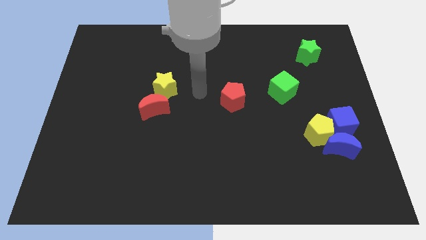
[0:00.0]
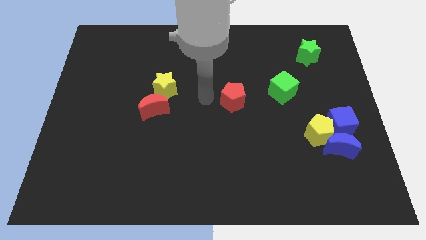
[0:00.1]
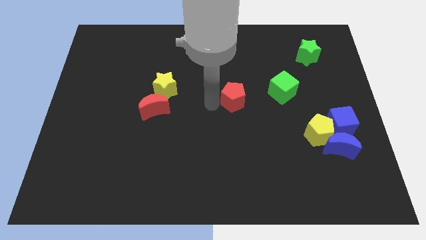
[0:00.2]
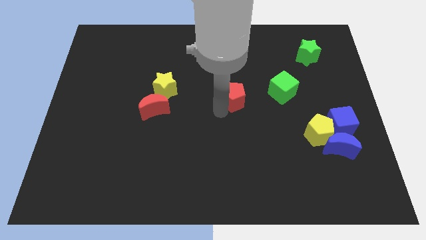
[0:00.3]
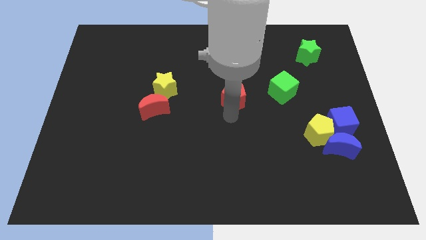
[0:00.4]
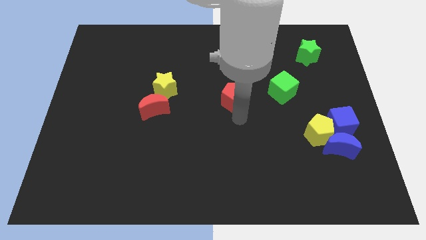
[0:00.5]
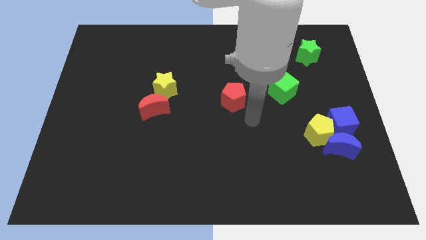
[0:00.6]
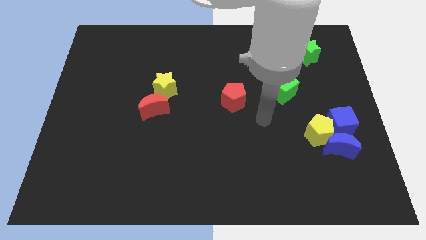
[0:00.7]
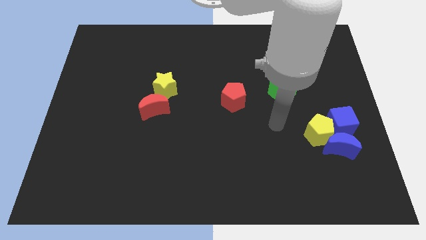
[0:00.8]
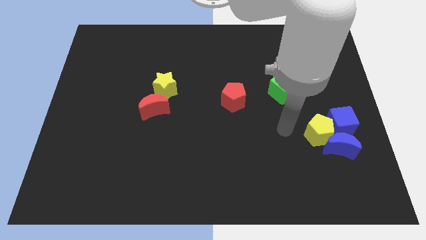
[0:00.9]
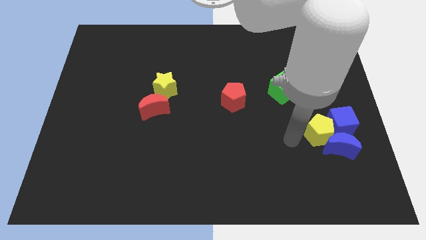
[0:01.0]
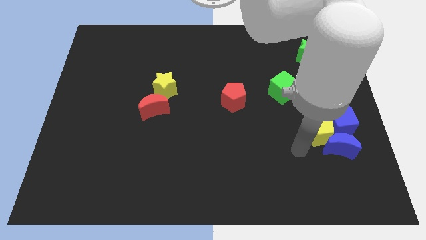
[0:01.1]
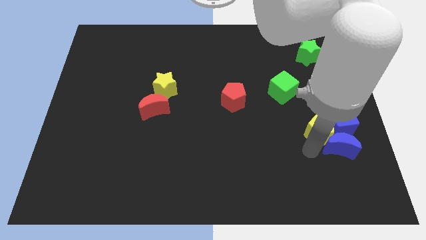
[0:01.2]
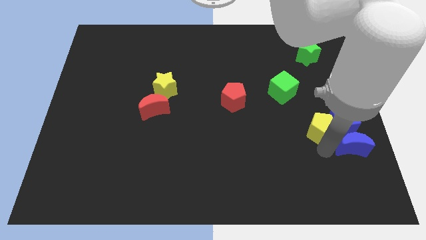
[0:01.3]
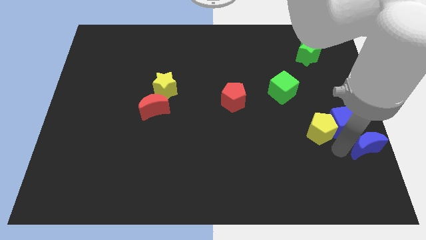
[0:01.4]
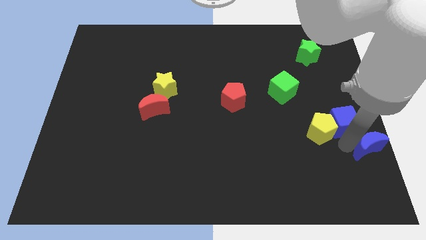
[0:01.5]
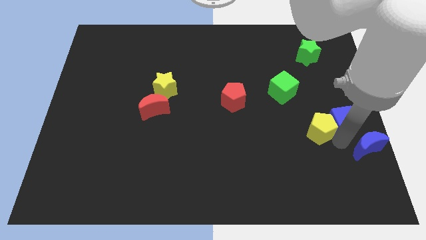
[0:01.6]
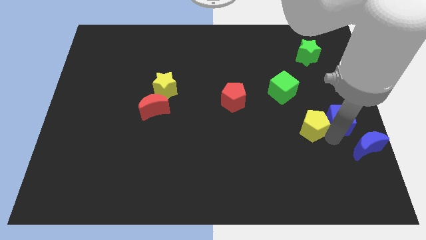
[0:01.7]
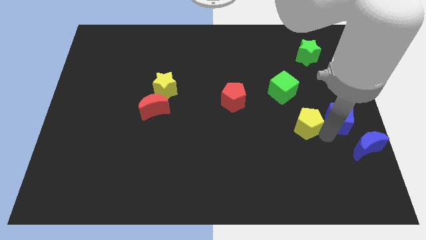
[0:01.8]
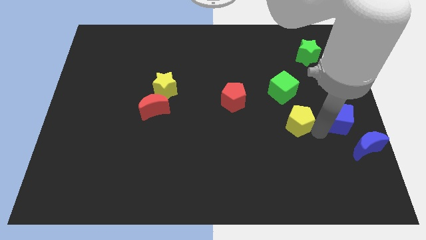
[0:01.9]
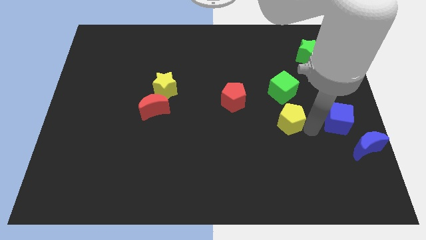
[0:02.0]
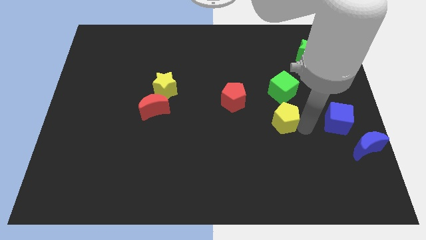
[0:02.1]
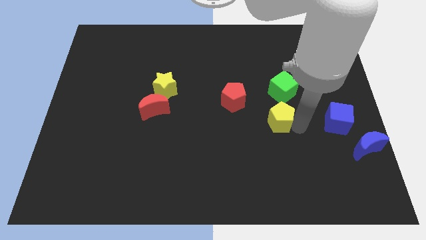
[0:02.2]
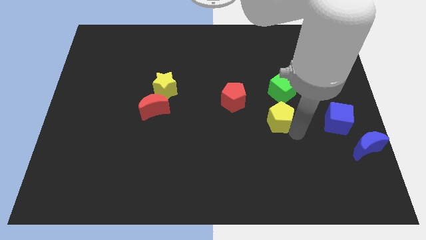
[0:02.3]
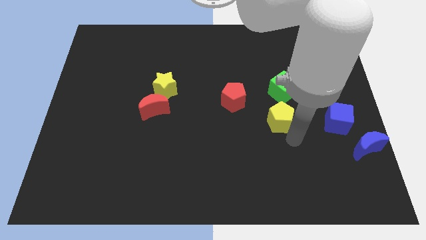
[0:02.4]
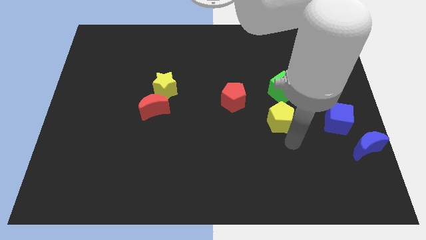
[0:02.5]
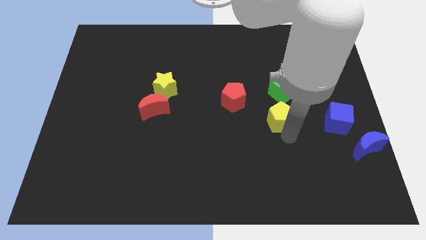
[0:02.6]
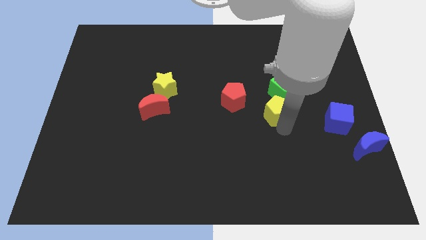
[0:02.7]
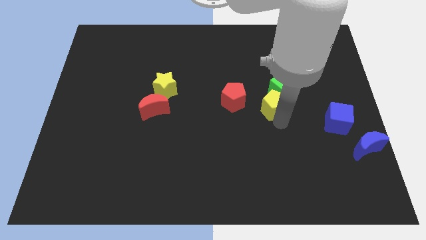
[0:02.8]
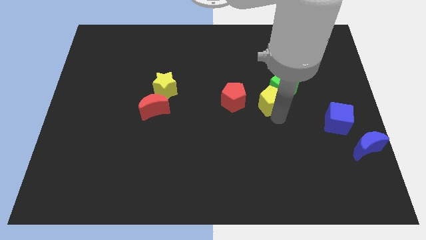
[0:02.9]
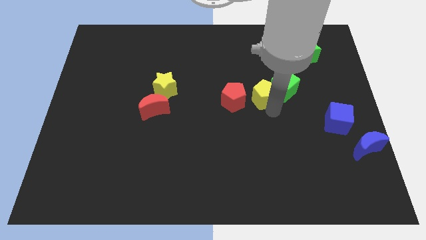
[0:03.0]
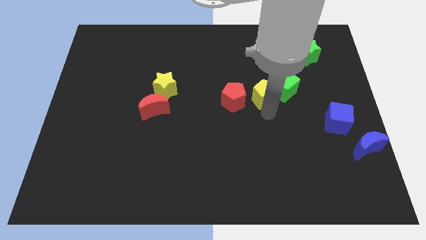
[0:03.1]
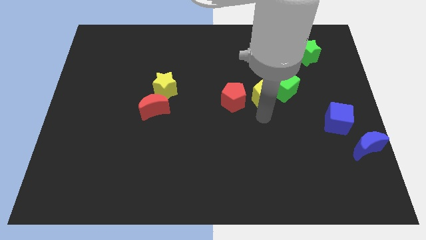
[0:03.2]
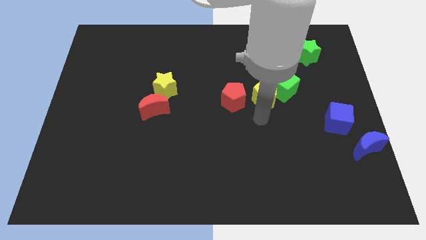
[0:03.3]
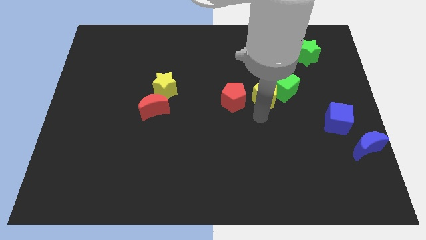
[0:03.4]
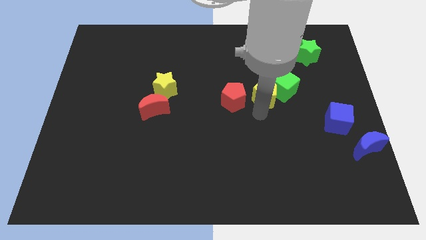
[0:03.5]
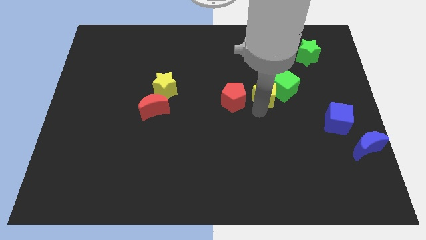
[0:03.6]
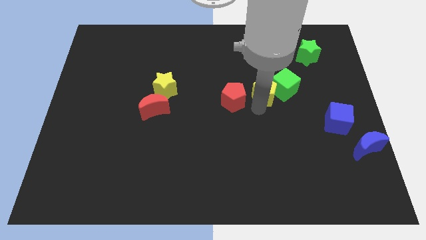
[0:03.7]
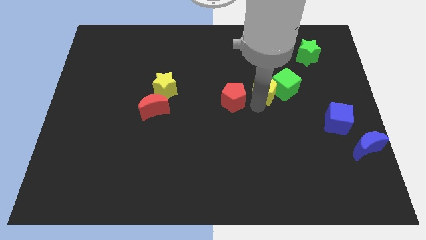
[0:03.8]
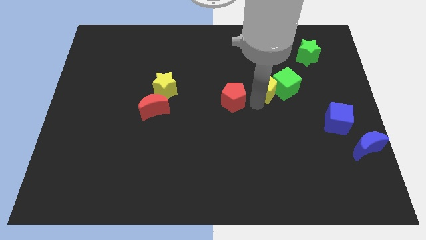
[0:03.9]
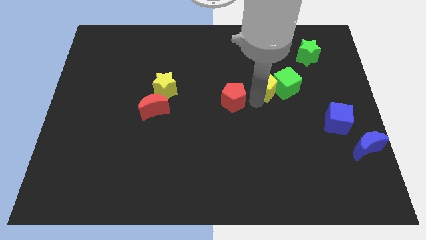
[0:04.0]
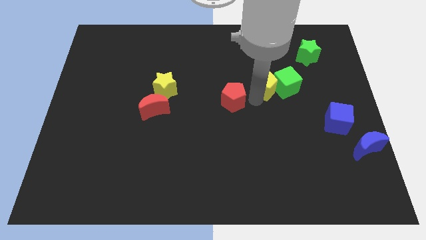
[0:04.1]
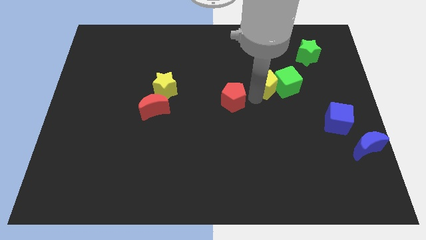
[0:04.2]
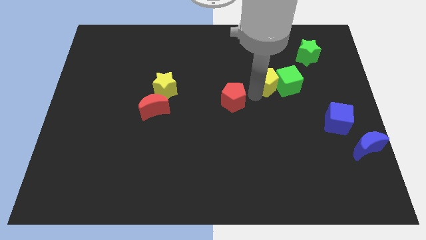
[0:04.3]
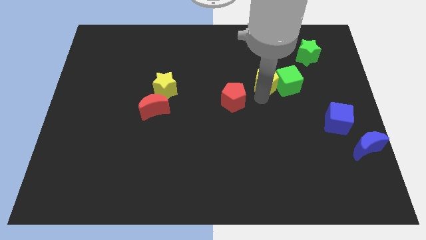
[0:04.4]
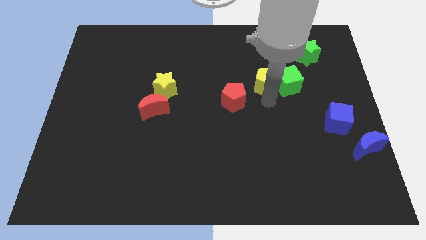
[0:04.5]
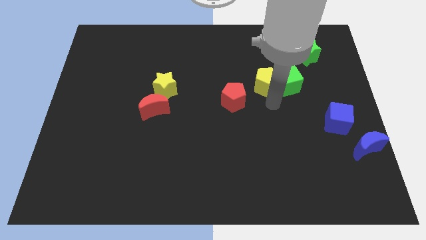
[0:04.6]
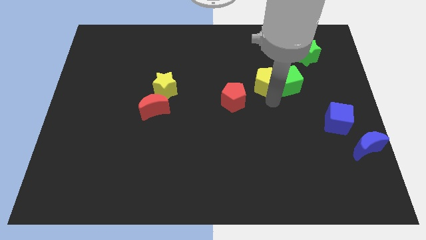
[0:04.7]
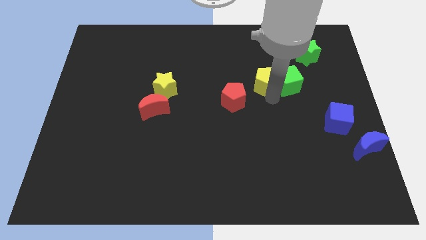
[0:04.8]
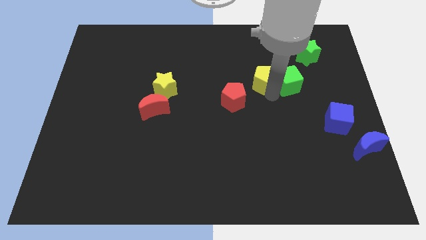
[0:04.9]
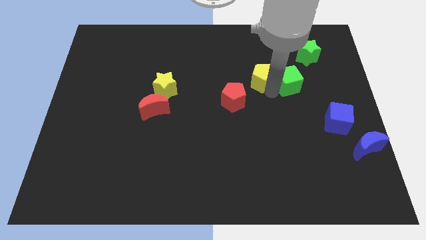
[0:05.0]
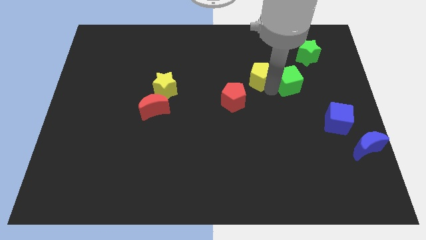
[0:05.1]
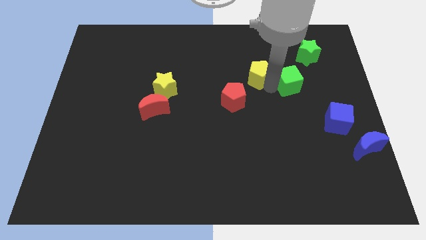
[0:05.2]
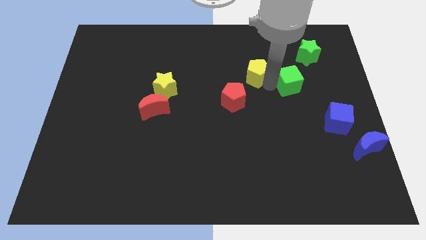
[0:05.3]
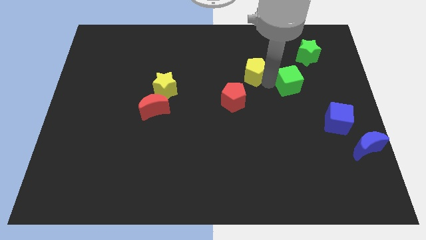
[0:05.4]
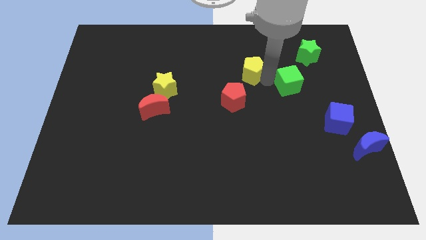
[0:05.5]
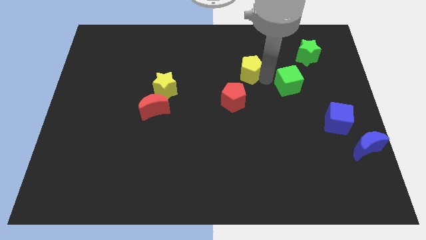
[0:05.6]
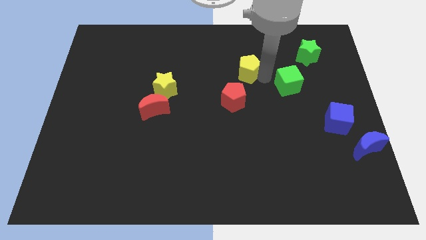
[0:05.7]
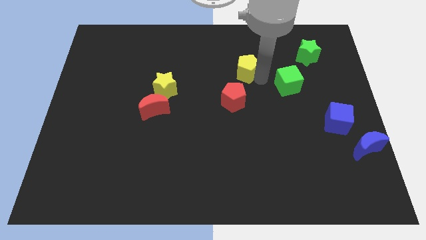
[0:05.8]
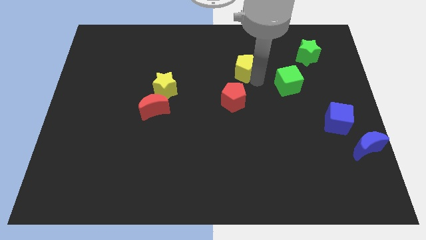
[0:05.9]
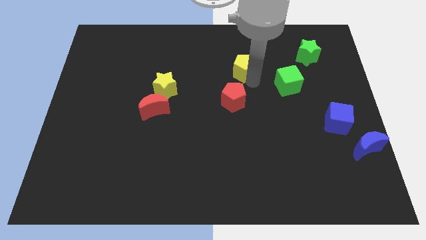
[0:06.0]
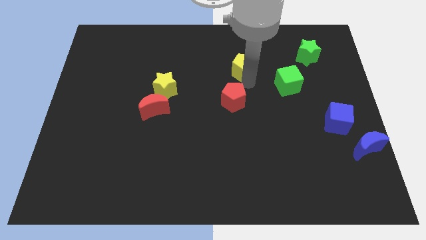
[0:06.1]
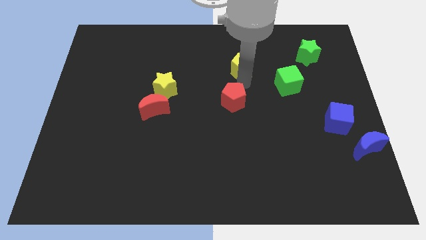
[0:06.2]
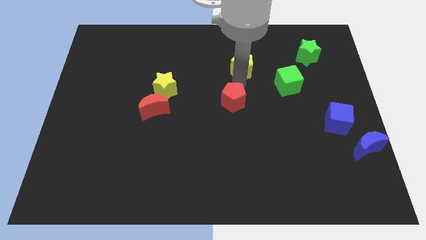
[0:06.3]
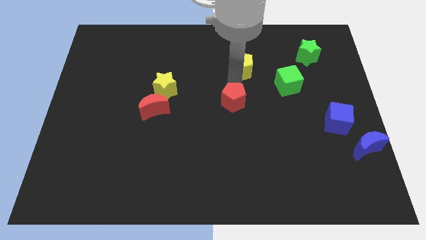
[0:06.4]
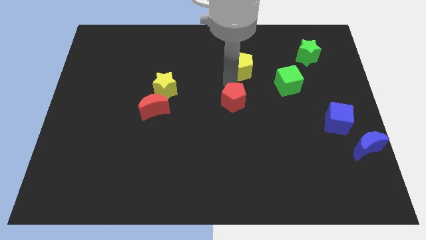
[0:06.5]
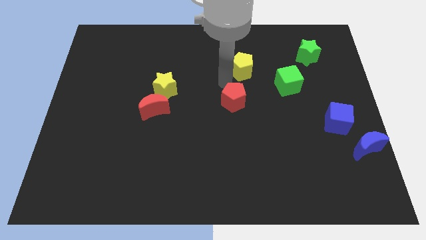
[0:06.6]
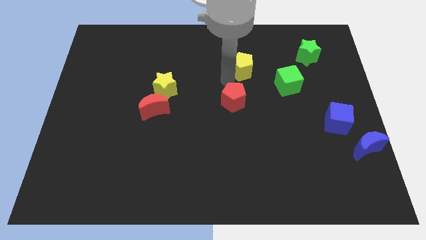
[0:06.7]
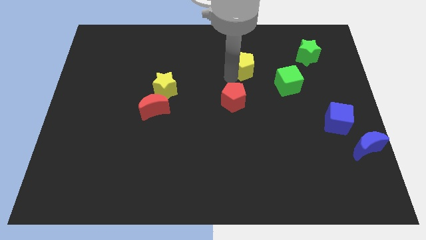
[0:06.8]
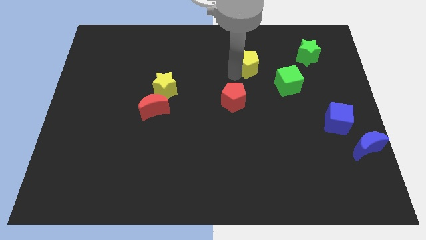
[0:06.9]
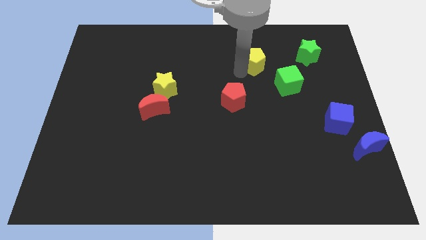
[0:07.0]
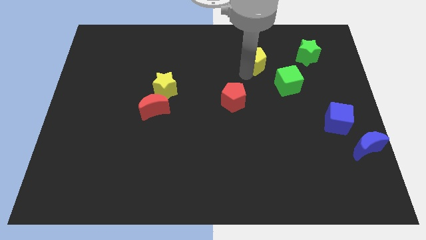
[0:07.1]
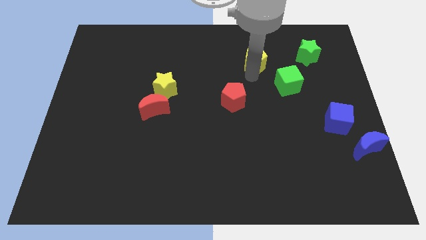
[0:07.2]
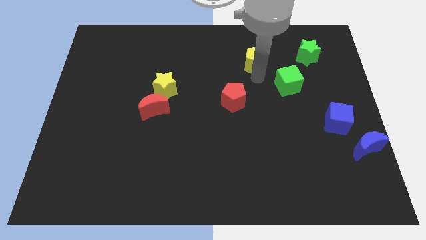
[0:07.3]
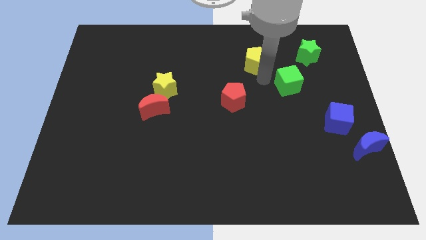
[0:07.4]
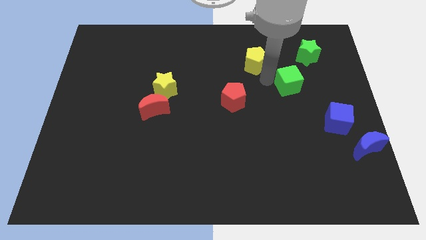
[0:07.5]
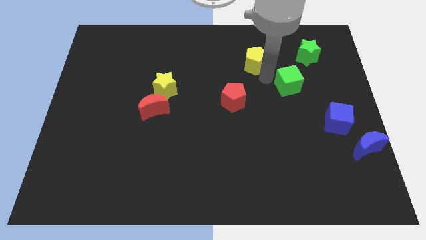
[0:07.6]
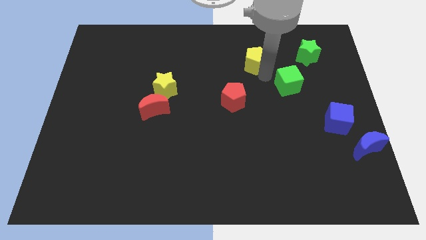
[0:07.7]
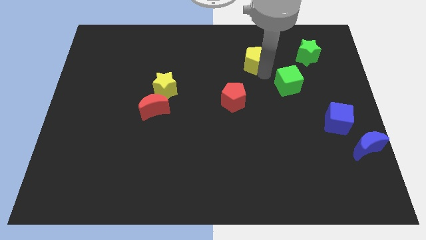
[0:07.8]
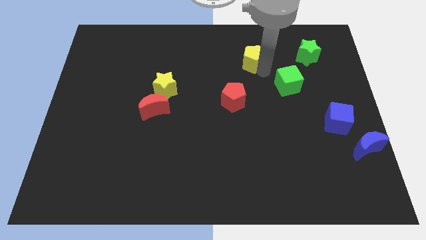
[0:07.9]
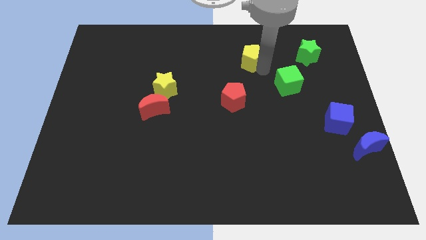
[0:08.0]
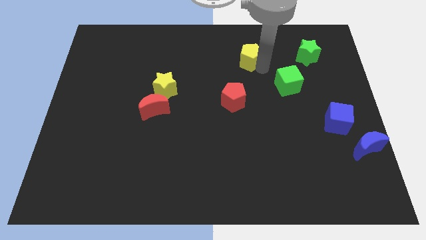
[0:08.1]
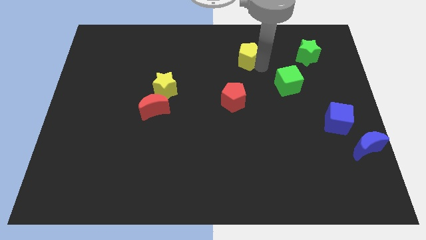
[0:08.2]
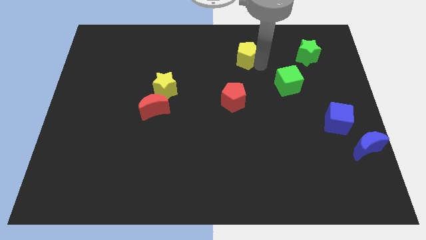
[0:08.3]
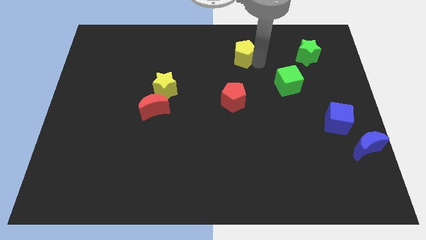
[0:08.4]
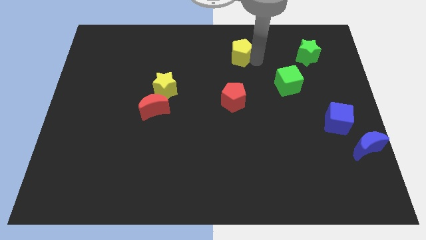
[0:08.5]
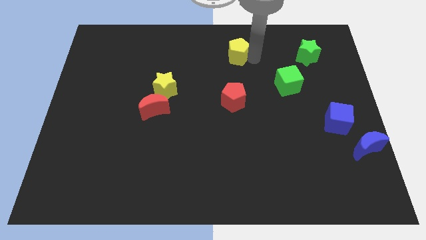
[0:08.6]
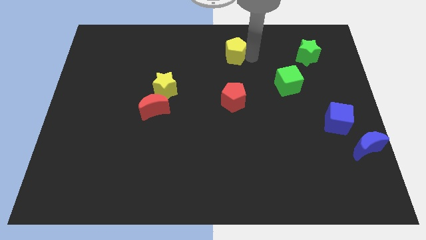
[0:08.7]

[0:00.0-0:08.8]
move the yellow pentagon to the towards your base
